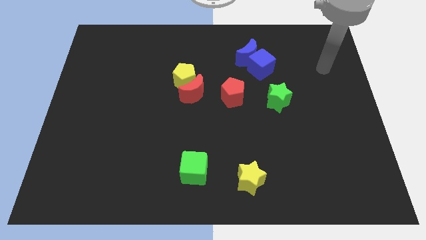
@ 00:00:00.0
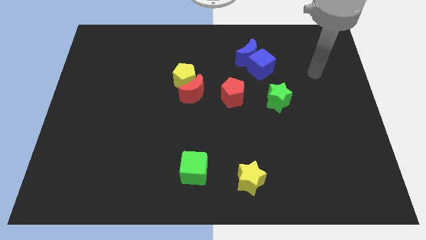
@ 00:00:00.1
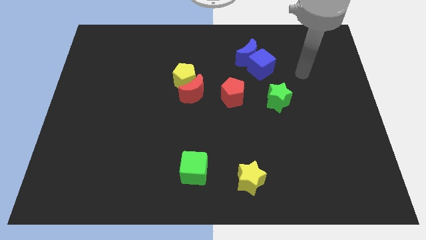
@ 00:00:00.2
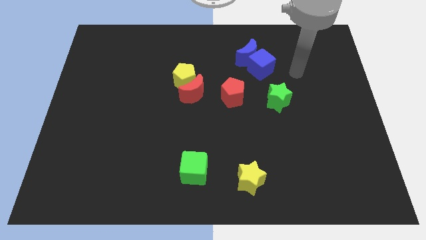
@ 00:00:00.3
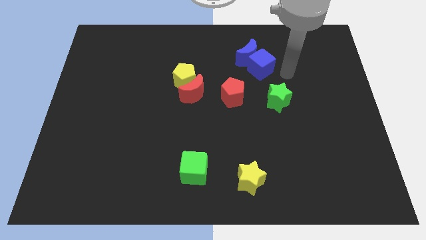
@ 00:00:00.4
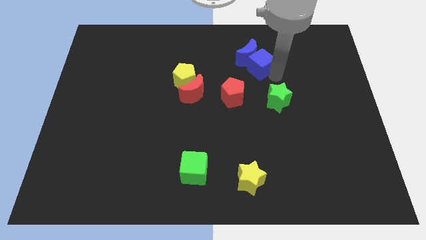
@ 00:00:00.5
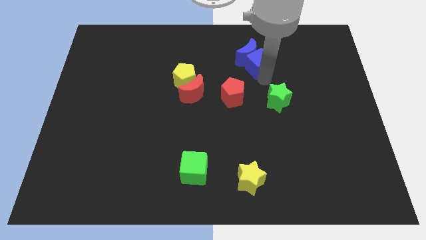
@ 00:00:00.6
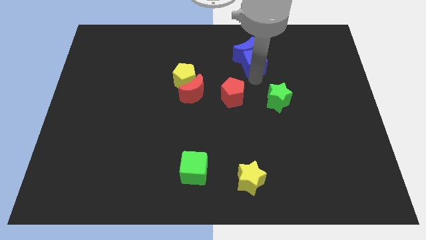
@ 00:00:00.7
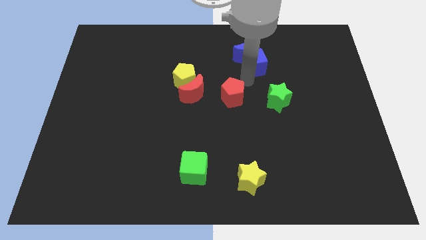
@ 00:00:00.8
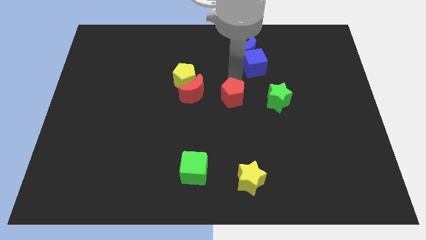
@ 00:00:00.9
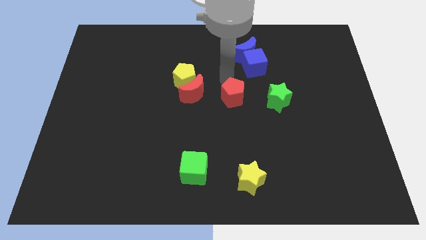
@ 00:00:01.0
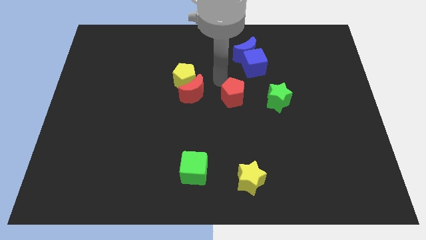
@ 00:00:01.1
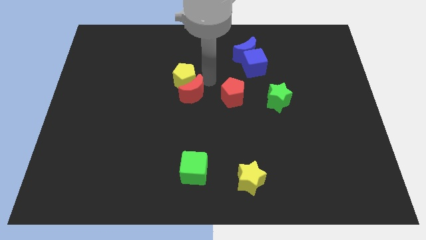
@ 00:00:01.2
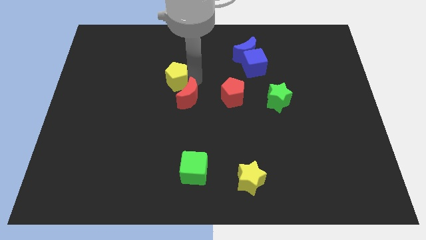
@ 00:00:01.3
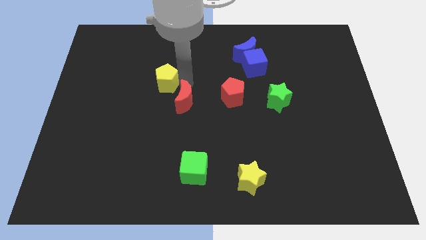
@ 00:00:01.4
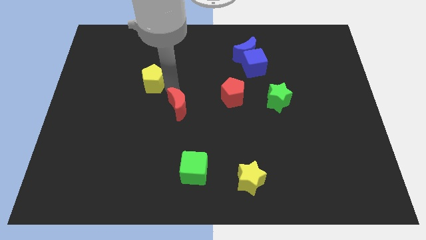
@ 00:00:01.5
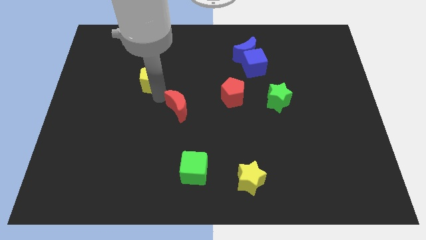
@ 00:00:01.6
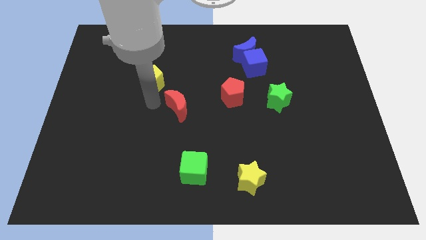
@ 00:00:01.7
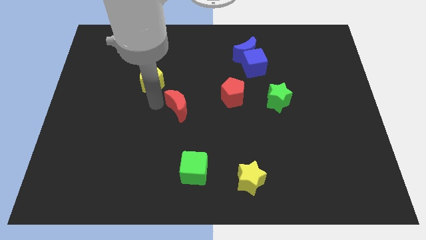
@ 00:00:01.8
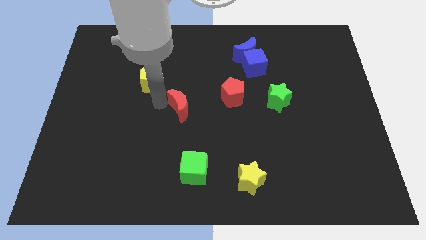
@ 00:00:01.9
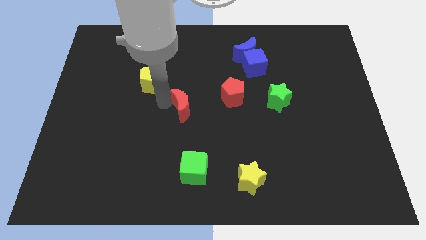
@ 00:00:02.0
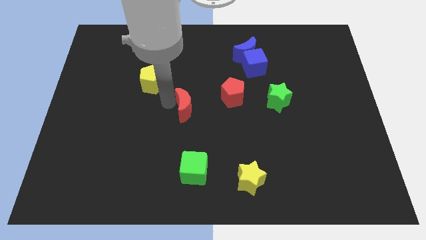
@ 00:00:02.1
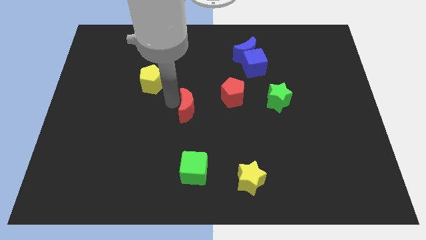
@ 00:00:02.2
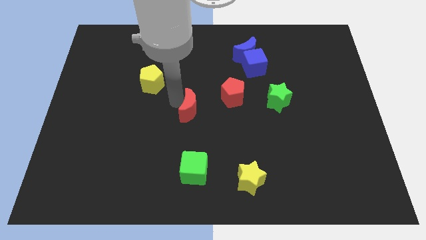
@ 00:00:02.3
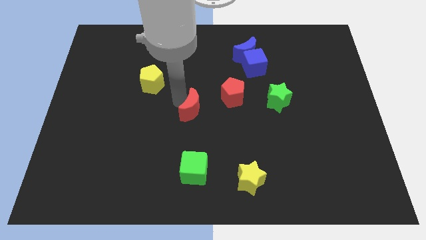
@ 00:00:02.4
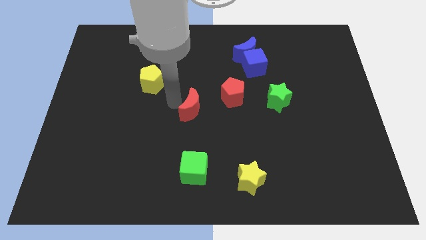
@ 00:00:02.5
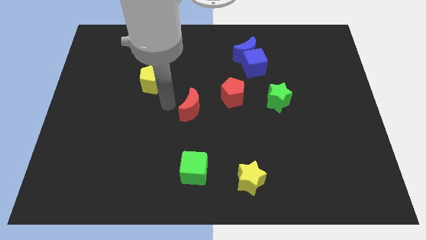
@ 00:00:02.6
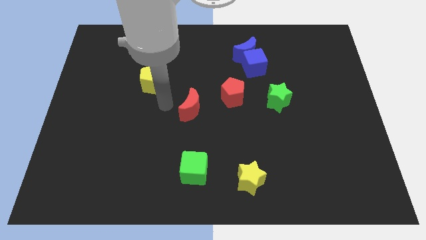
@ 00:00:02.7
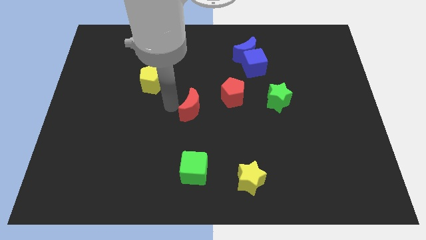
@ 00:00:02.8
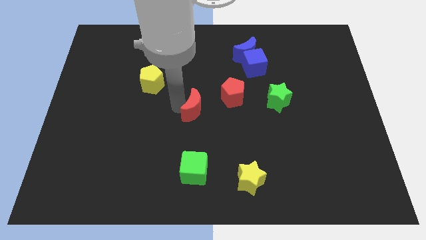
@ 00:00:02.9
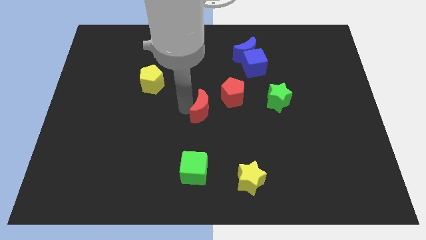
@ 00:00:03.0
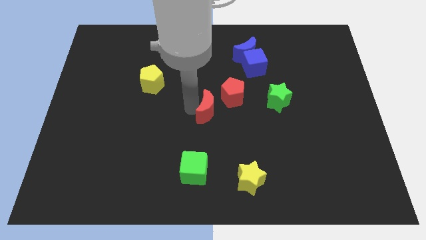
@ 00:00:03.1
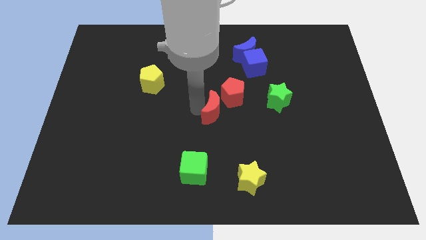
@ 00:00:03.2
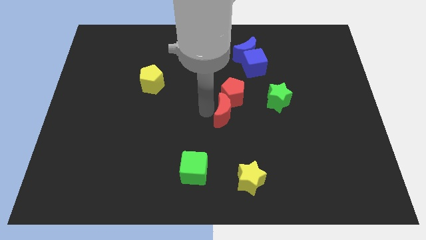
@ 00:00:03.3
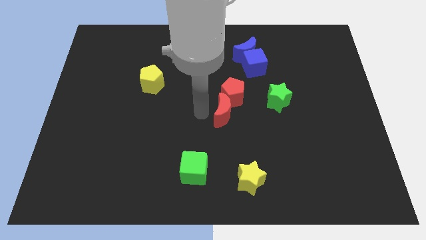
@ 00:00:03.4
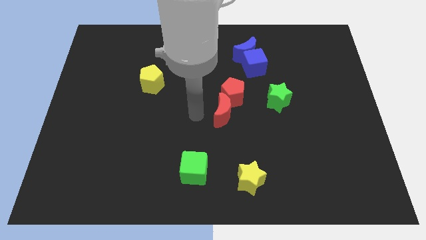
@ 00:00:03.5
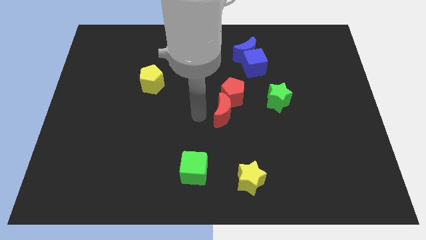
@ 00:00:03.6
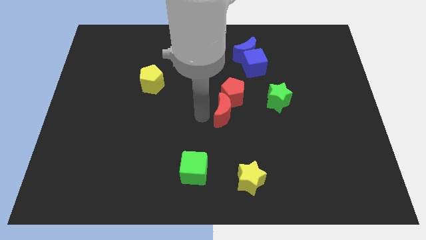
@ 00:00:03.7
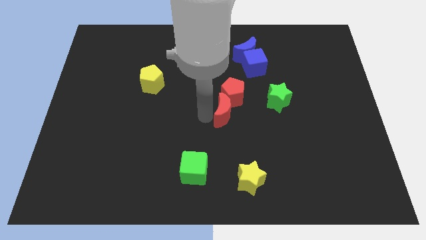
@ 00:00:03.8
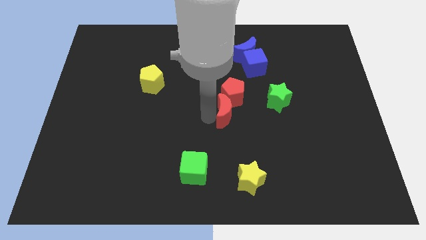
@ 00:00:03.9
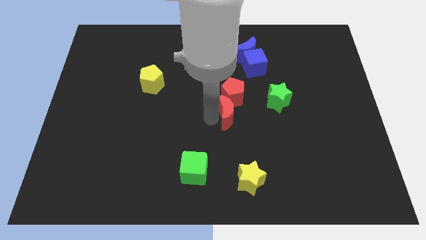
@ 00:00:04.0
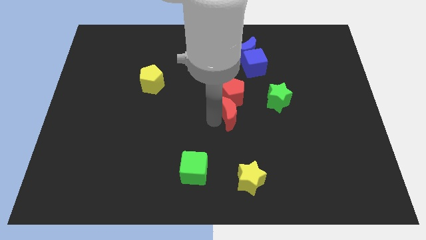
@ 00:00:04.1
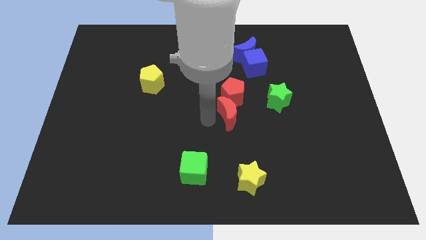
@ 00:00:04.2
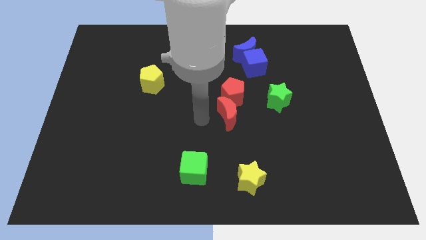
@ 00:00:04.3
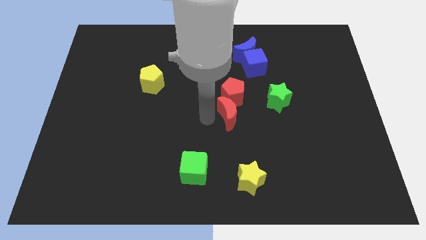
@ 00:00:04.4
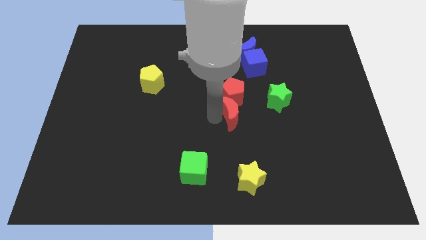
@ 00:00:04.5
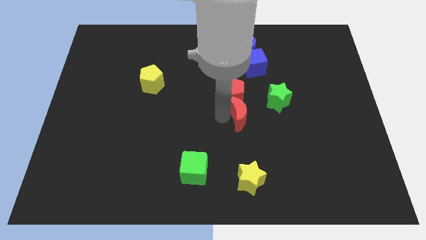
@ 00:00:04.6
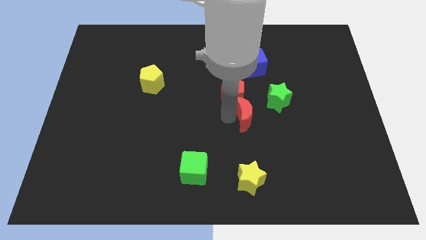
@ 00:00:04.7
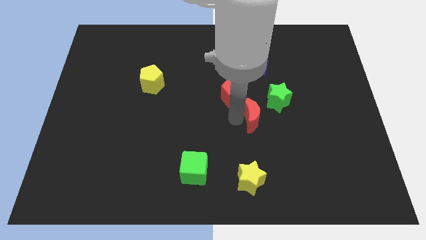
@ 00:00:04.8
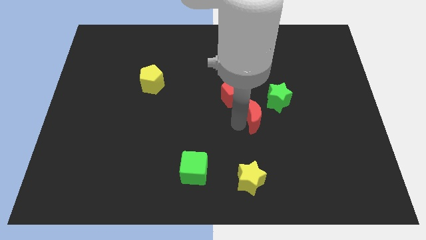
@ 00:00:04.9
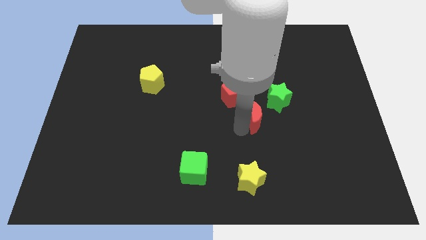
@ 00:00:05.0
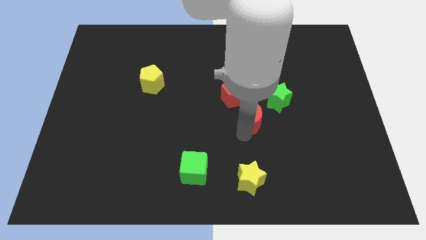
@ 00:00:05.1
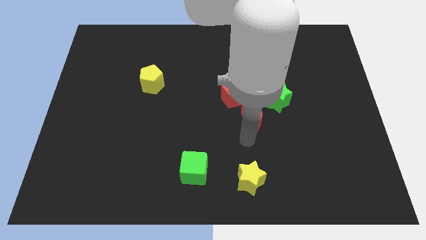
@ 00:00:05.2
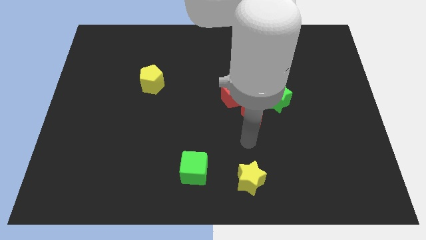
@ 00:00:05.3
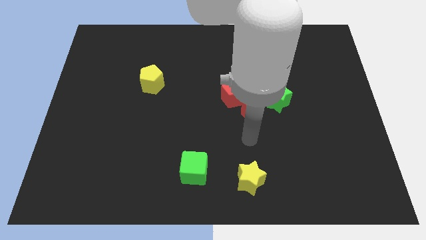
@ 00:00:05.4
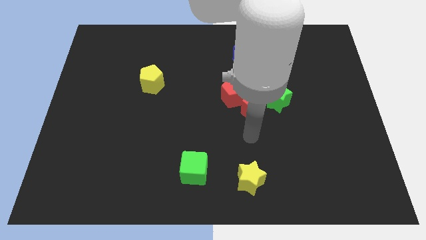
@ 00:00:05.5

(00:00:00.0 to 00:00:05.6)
slide the red moon to the bottom of the blue cube

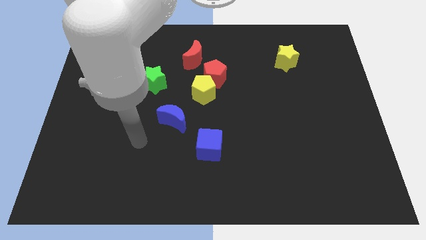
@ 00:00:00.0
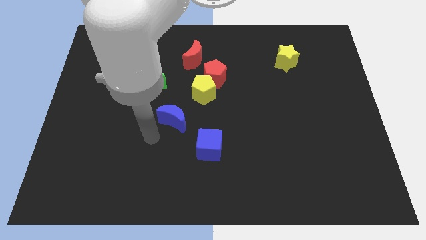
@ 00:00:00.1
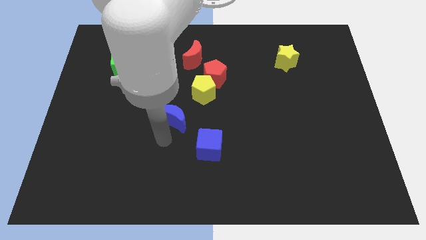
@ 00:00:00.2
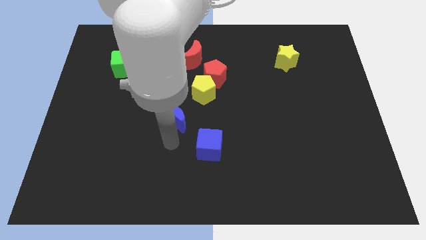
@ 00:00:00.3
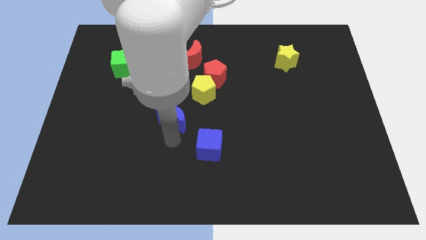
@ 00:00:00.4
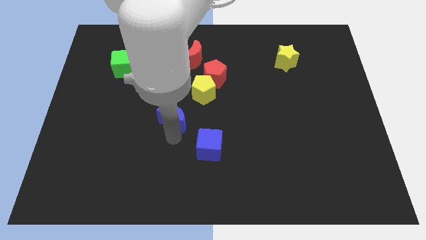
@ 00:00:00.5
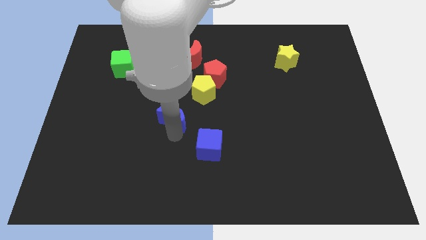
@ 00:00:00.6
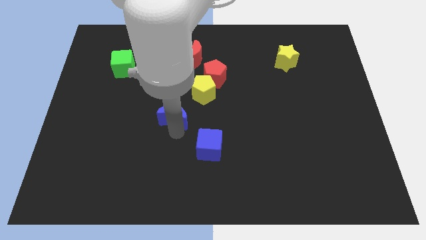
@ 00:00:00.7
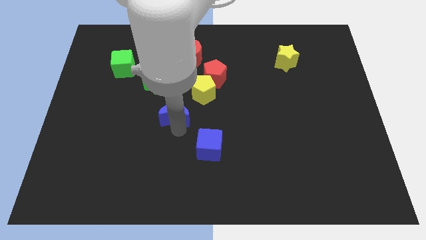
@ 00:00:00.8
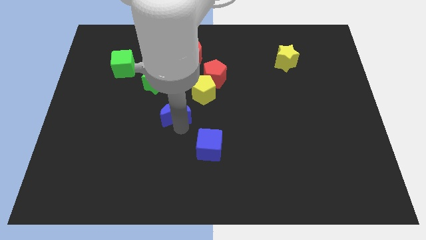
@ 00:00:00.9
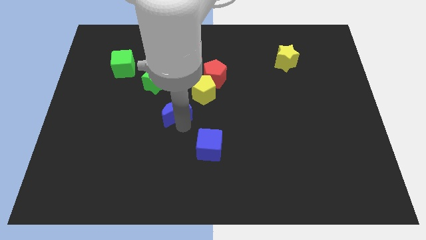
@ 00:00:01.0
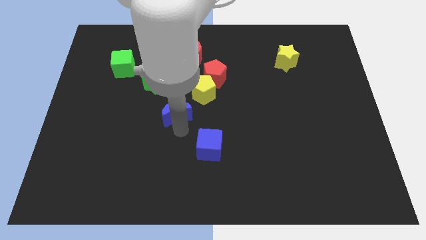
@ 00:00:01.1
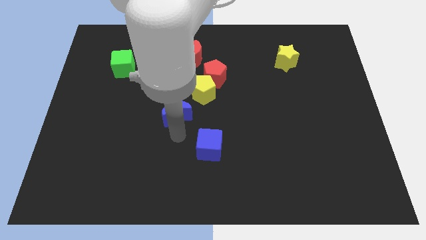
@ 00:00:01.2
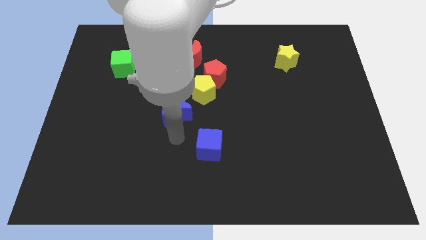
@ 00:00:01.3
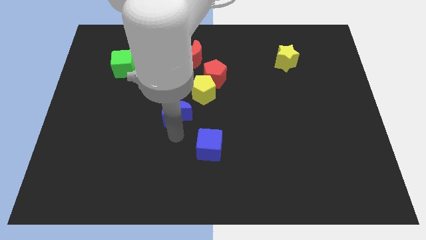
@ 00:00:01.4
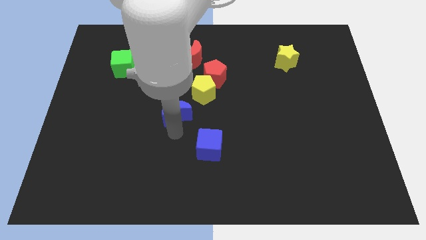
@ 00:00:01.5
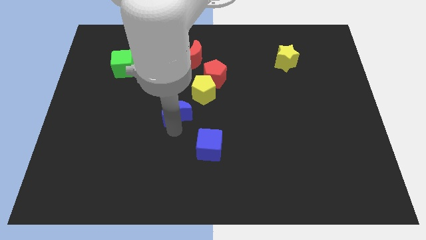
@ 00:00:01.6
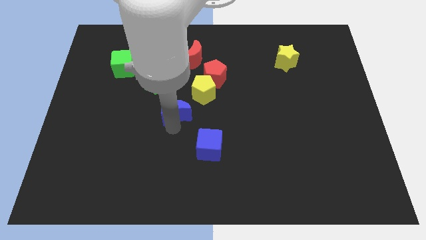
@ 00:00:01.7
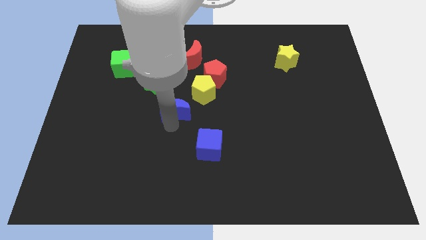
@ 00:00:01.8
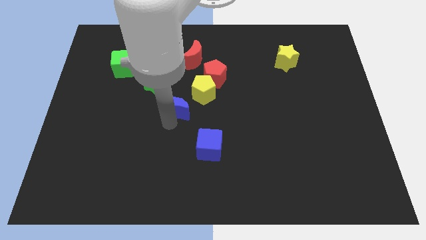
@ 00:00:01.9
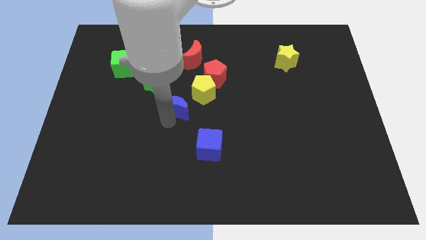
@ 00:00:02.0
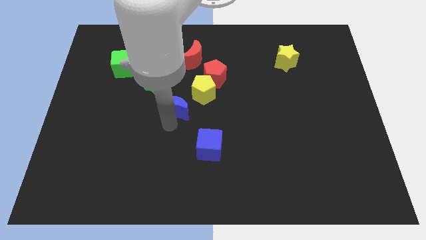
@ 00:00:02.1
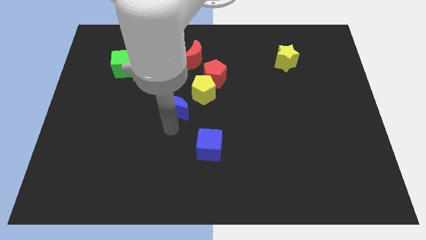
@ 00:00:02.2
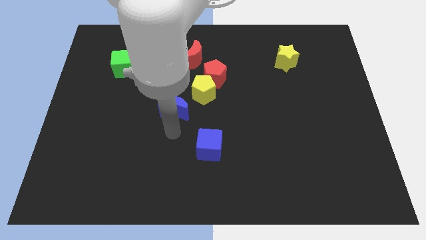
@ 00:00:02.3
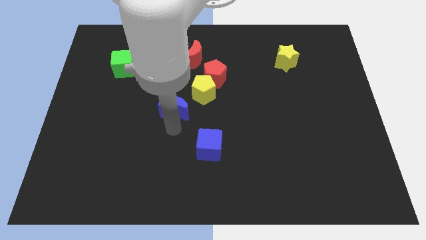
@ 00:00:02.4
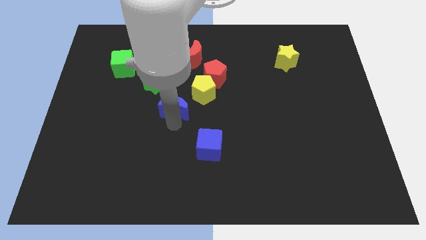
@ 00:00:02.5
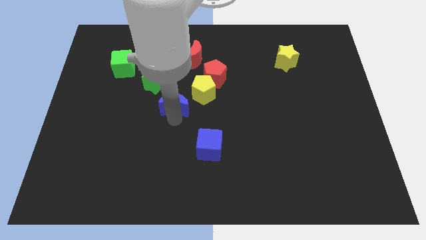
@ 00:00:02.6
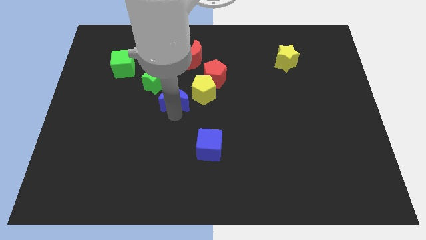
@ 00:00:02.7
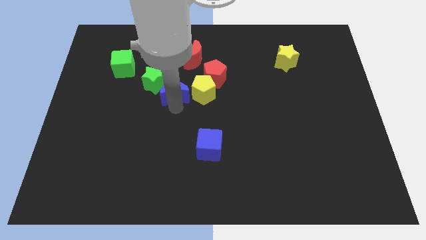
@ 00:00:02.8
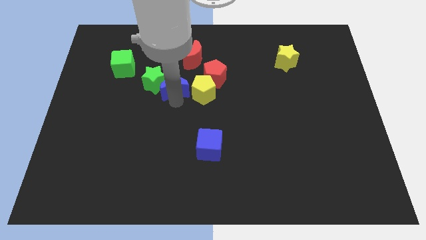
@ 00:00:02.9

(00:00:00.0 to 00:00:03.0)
push the blue moon just left of the red pentagon
